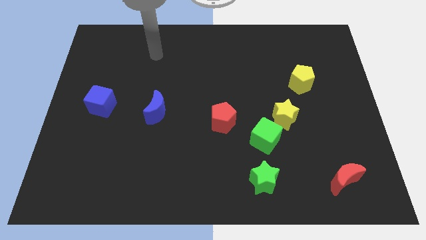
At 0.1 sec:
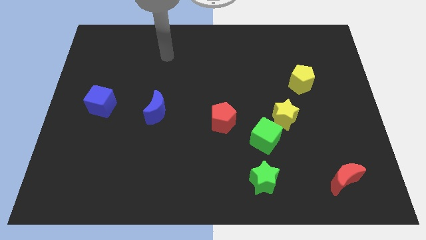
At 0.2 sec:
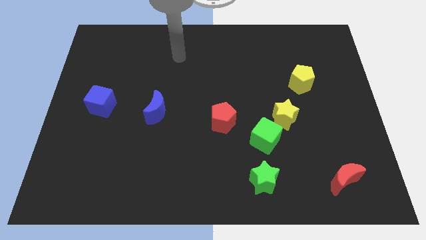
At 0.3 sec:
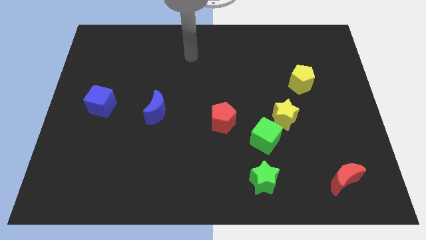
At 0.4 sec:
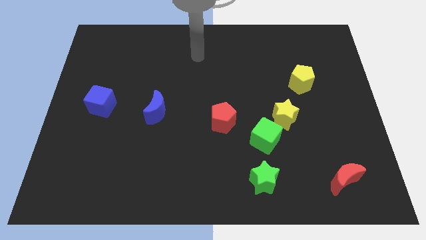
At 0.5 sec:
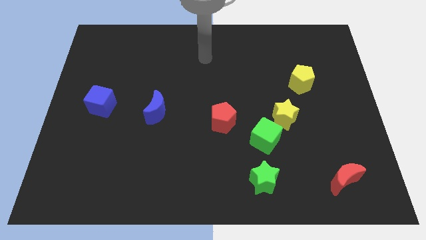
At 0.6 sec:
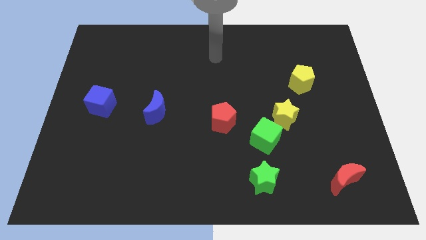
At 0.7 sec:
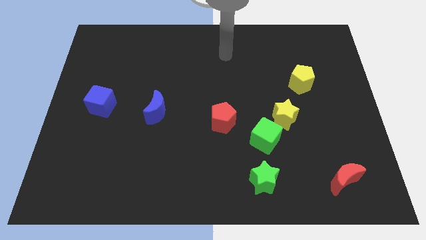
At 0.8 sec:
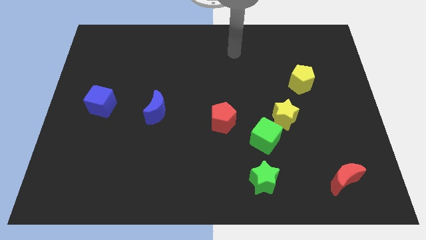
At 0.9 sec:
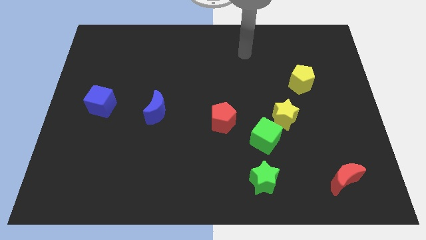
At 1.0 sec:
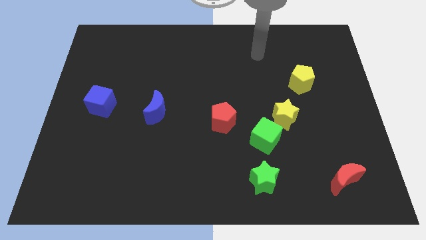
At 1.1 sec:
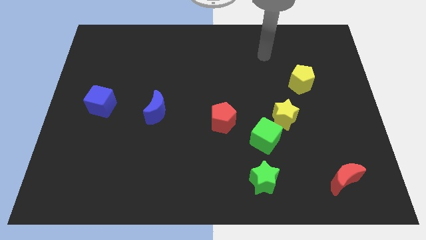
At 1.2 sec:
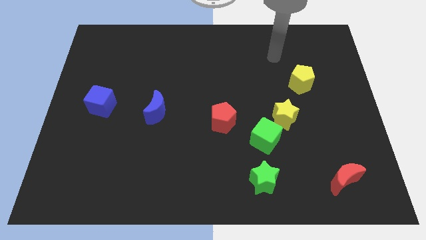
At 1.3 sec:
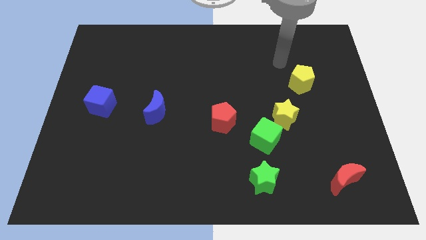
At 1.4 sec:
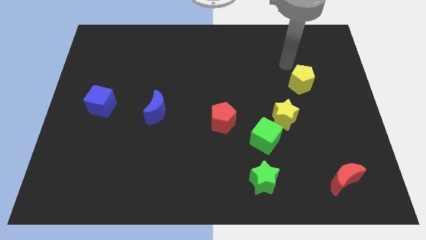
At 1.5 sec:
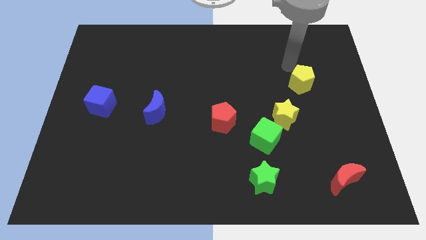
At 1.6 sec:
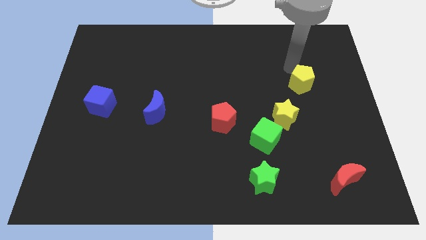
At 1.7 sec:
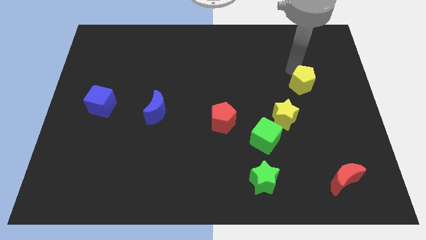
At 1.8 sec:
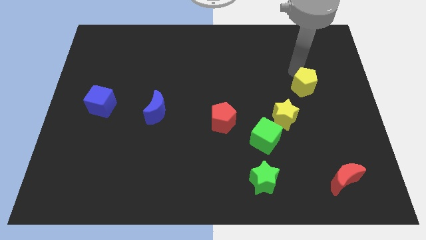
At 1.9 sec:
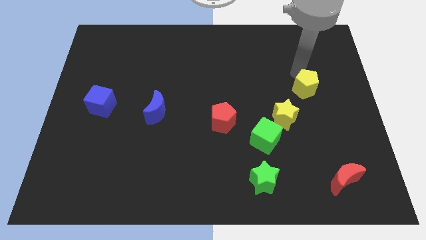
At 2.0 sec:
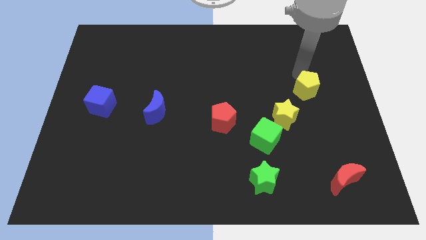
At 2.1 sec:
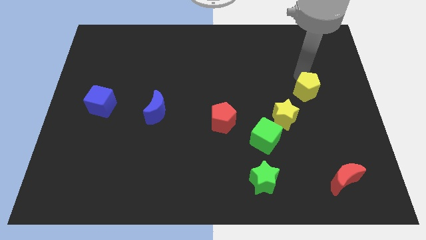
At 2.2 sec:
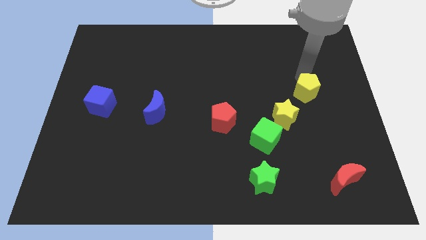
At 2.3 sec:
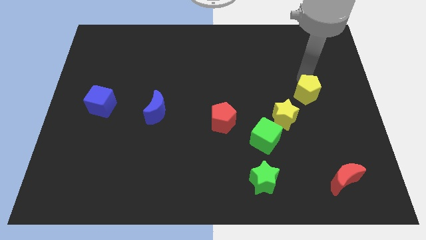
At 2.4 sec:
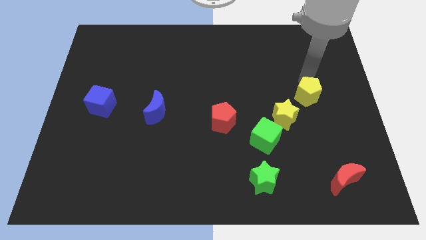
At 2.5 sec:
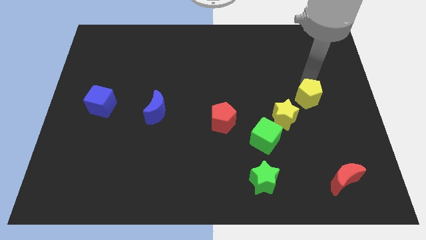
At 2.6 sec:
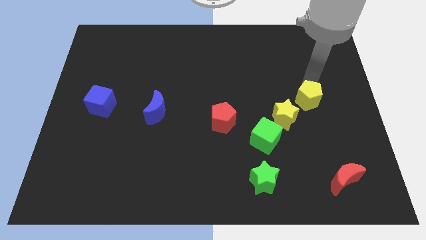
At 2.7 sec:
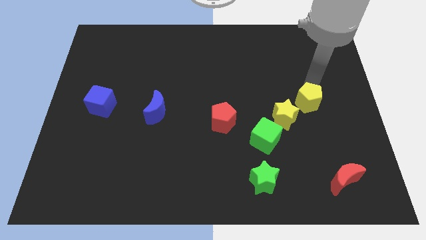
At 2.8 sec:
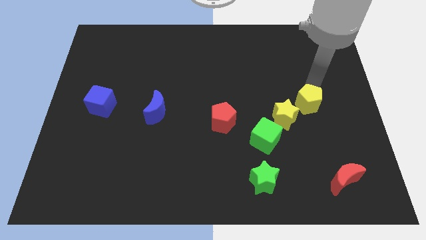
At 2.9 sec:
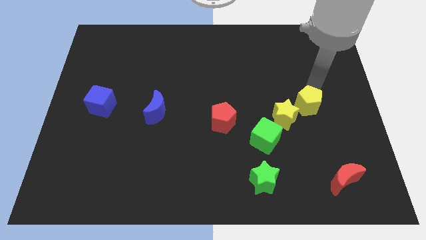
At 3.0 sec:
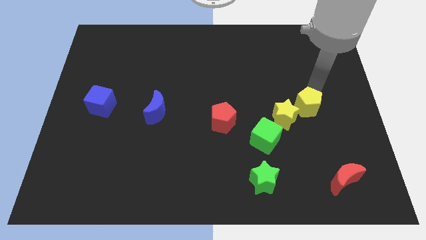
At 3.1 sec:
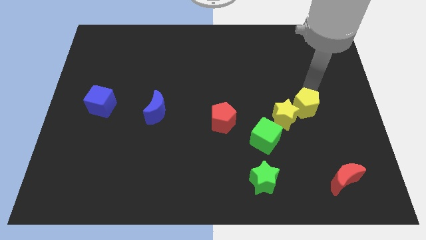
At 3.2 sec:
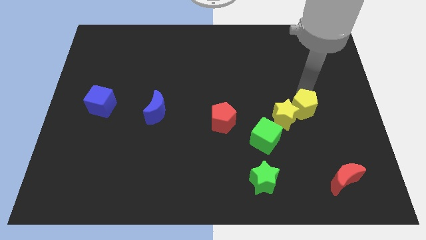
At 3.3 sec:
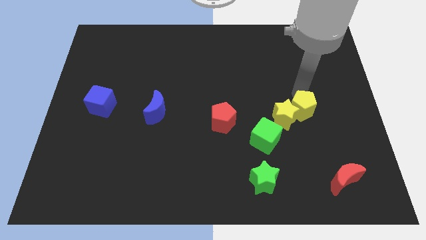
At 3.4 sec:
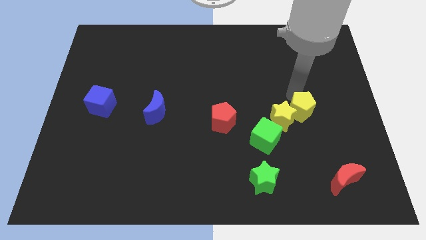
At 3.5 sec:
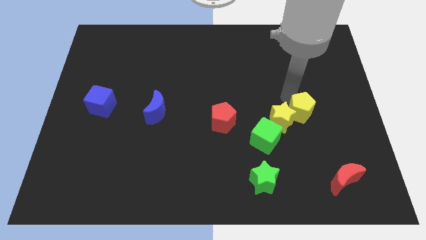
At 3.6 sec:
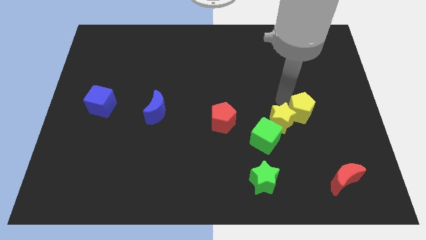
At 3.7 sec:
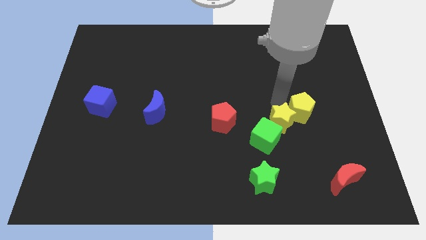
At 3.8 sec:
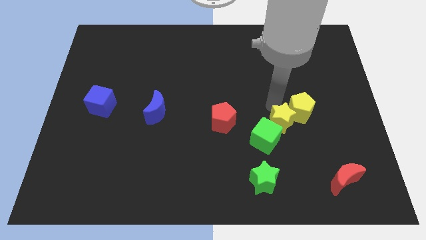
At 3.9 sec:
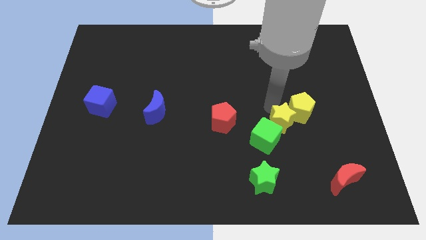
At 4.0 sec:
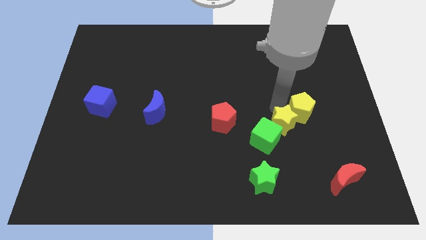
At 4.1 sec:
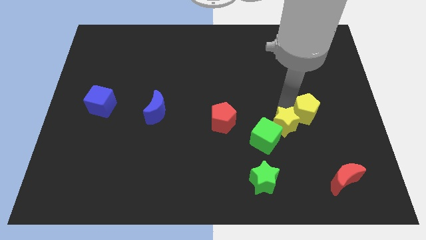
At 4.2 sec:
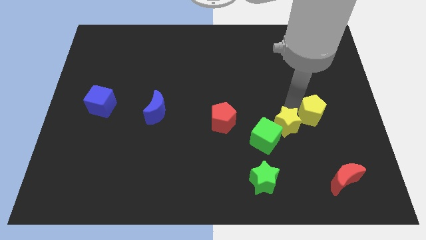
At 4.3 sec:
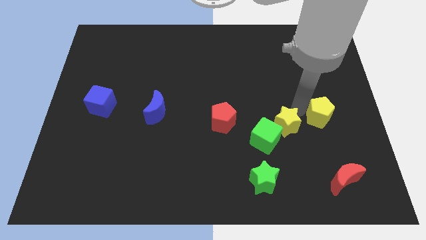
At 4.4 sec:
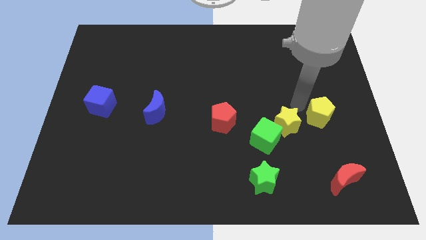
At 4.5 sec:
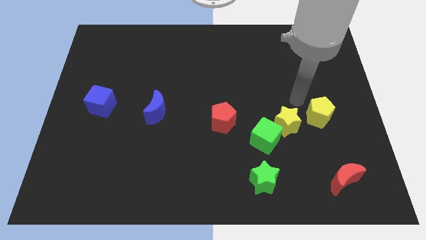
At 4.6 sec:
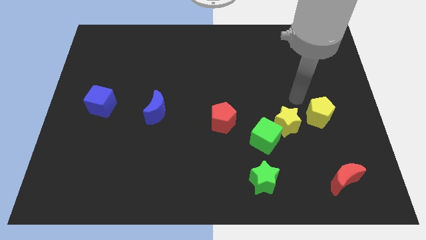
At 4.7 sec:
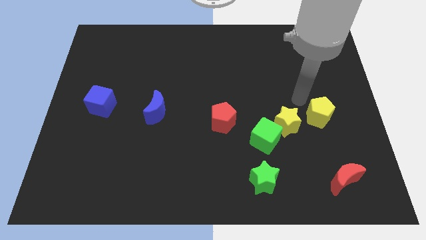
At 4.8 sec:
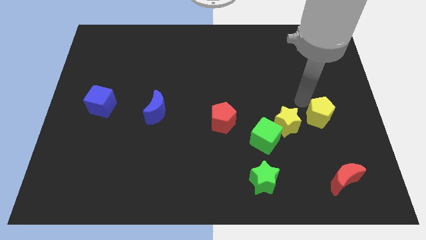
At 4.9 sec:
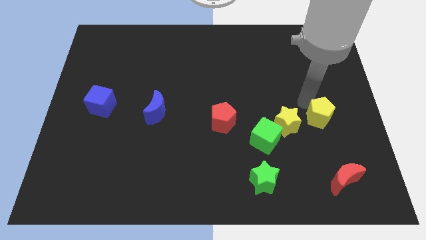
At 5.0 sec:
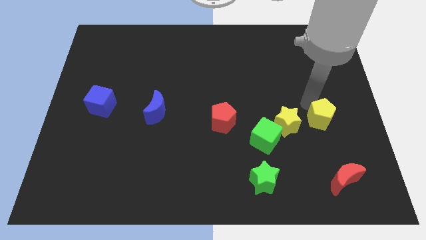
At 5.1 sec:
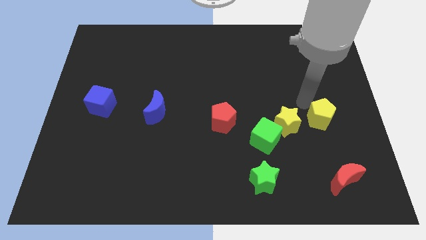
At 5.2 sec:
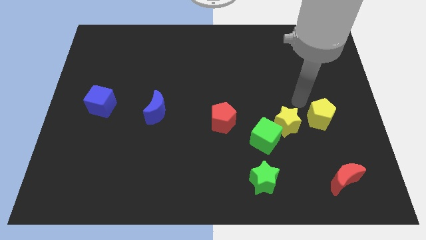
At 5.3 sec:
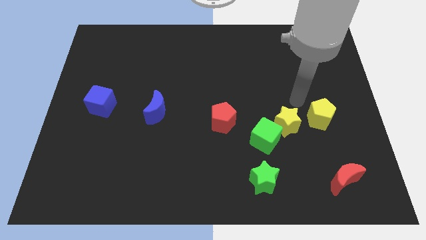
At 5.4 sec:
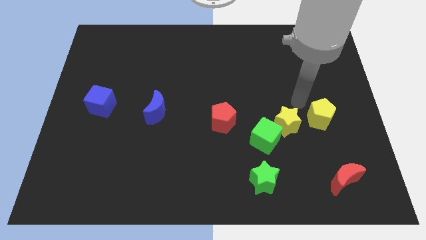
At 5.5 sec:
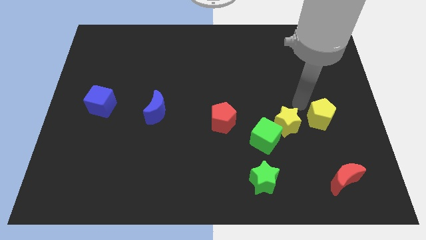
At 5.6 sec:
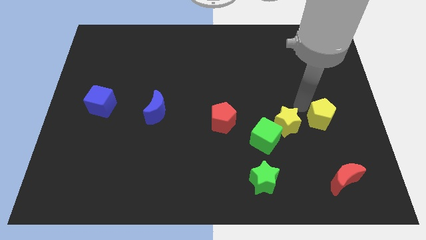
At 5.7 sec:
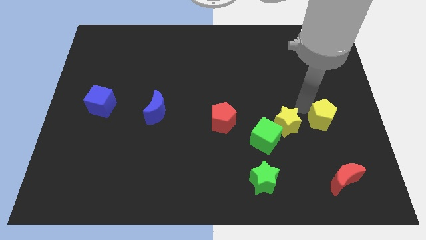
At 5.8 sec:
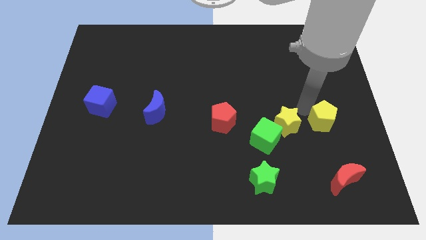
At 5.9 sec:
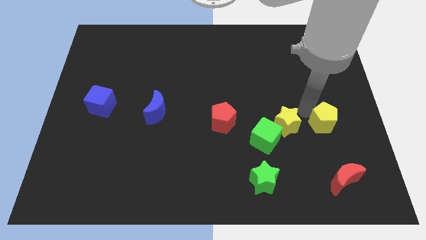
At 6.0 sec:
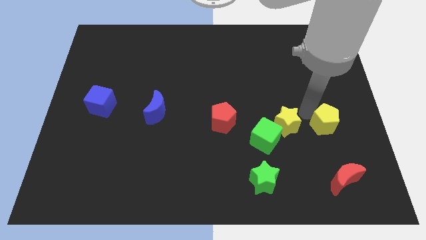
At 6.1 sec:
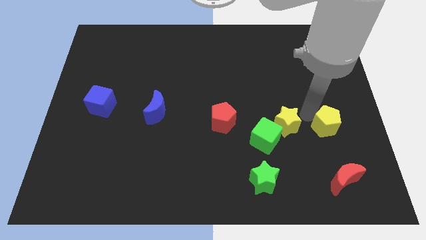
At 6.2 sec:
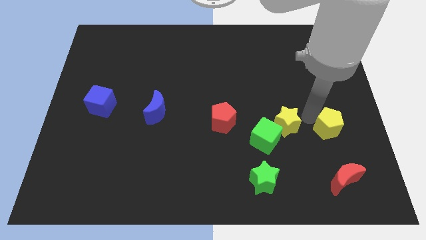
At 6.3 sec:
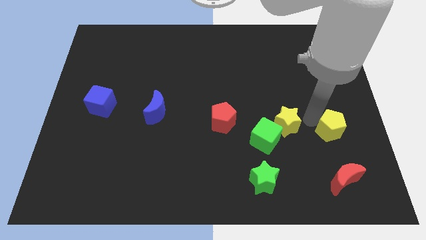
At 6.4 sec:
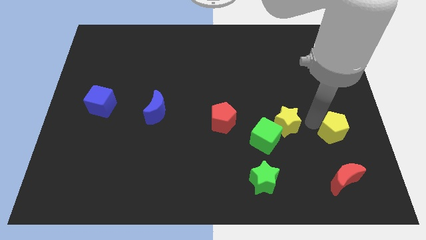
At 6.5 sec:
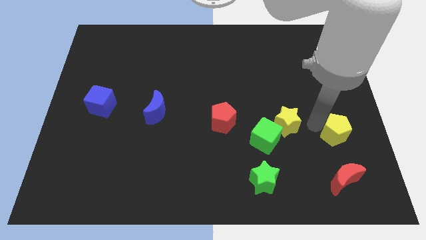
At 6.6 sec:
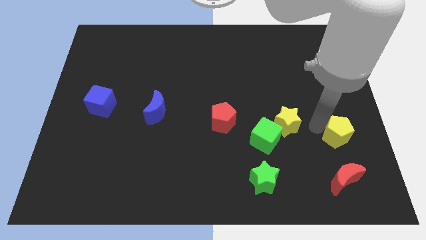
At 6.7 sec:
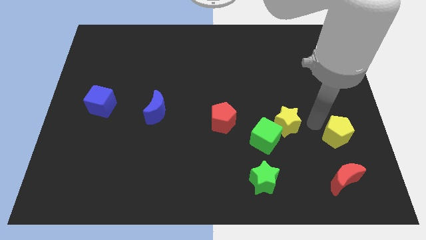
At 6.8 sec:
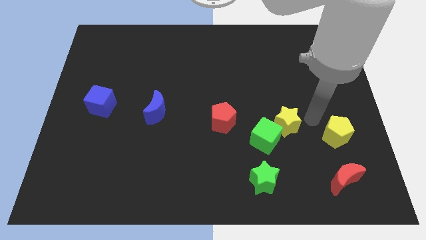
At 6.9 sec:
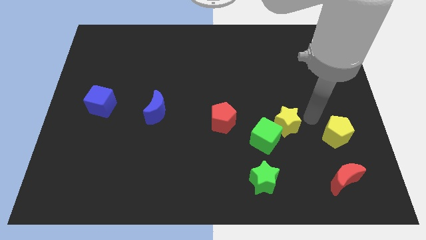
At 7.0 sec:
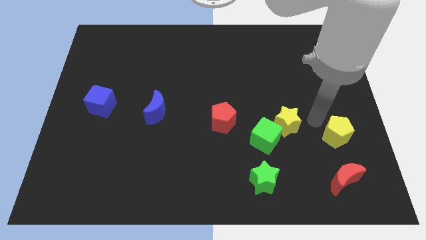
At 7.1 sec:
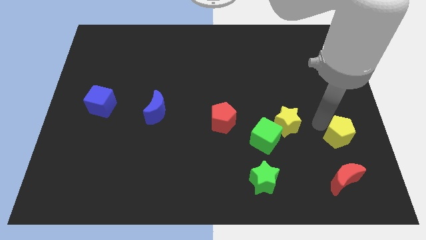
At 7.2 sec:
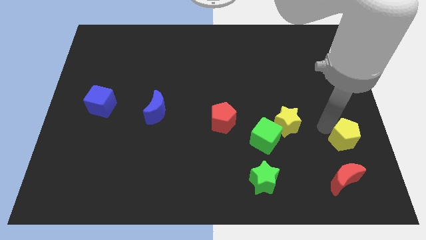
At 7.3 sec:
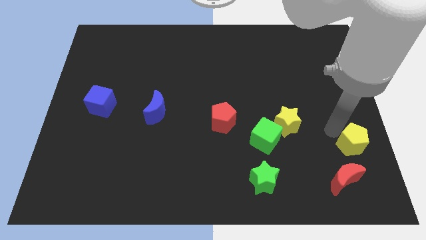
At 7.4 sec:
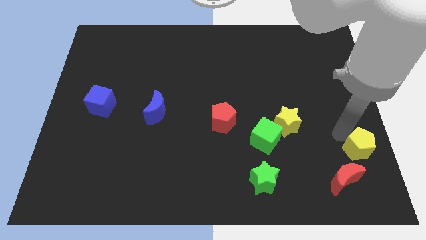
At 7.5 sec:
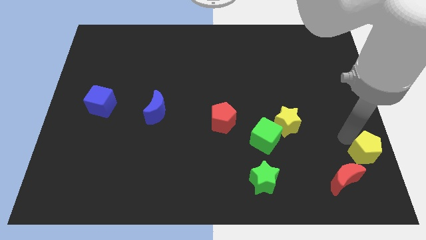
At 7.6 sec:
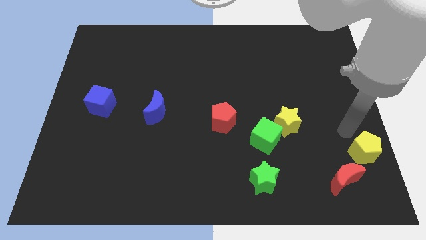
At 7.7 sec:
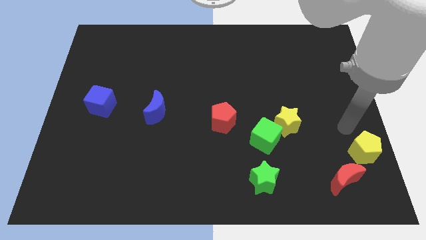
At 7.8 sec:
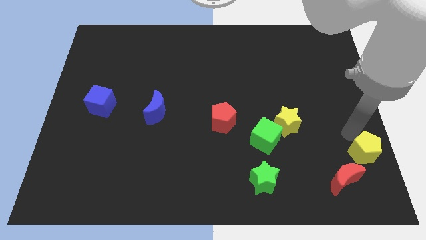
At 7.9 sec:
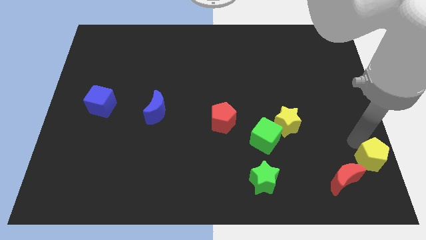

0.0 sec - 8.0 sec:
slide the yellow pentagon to the lower right corner
